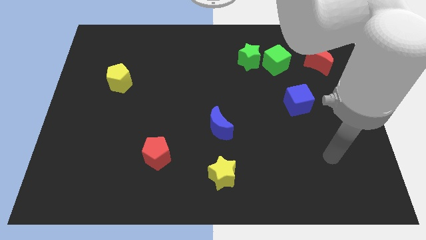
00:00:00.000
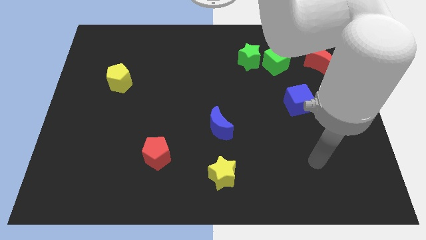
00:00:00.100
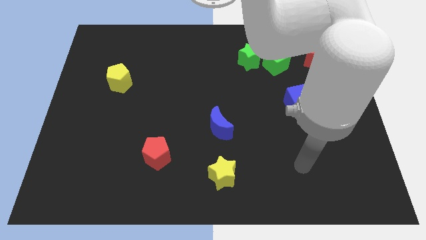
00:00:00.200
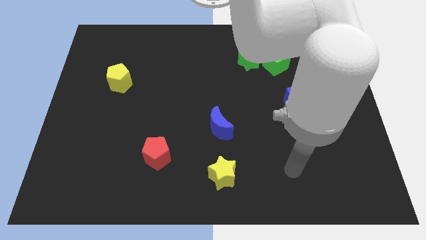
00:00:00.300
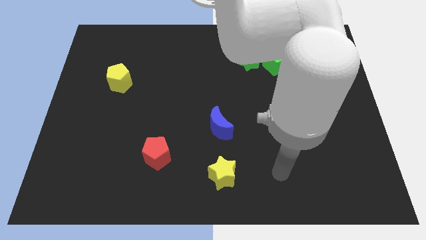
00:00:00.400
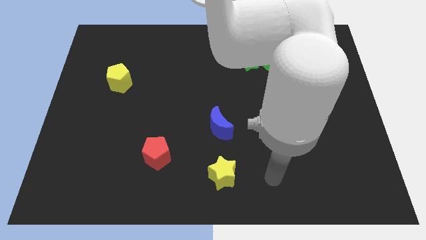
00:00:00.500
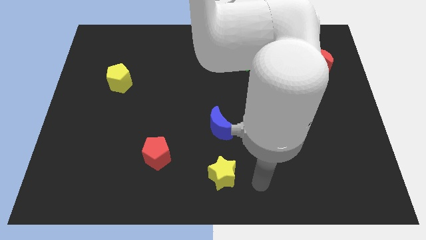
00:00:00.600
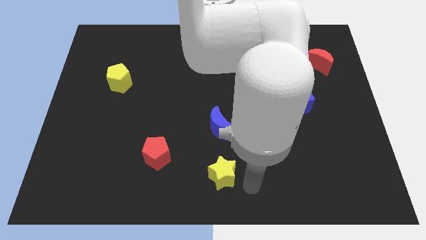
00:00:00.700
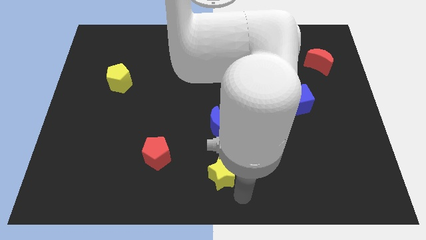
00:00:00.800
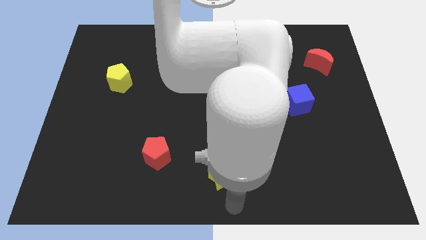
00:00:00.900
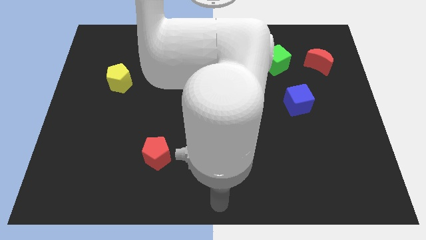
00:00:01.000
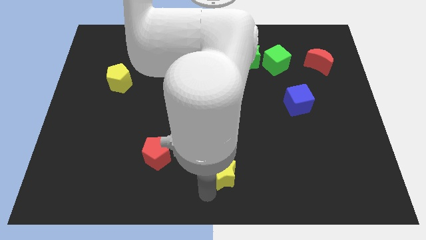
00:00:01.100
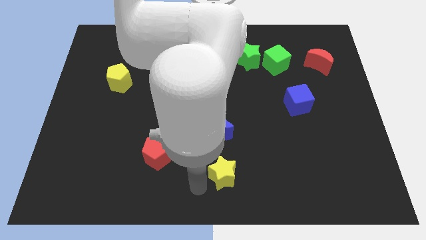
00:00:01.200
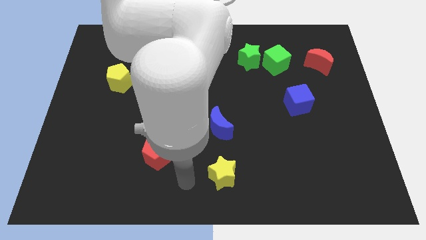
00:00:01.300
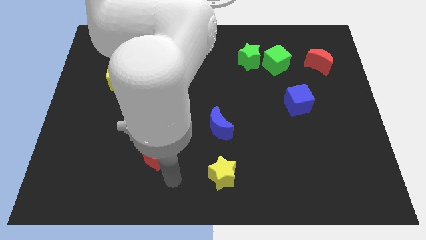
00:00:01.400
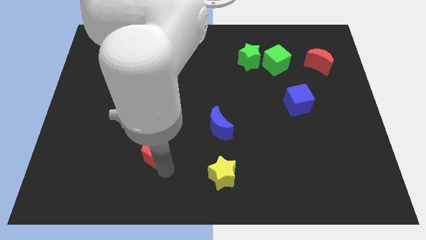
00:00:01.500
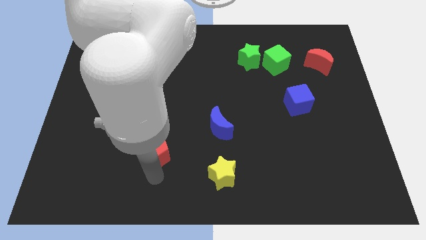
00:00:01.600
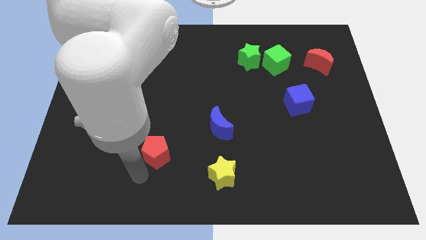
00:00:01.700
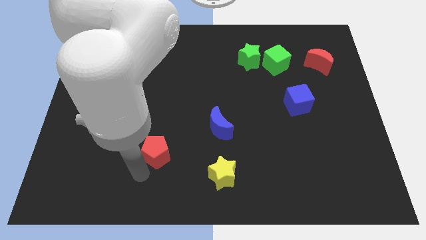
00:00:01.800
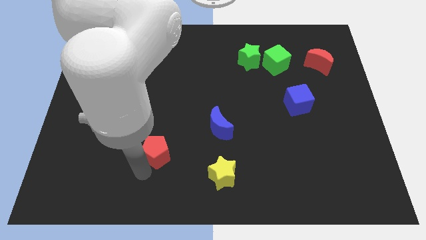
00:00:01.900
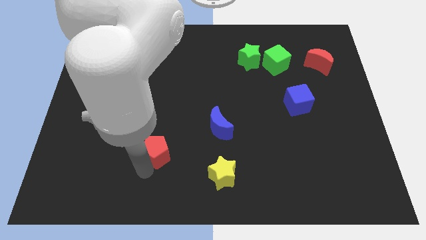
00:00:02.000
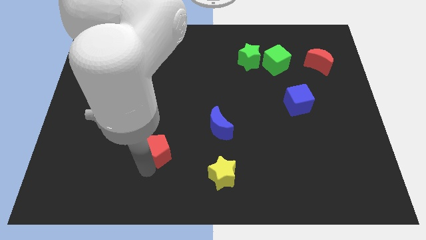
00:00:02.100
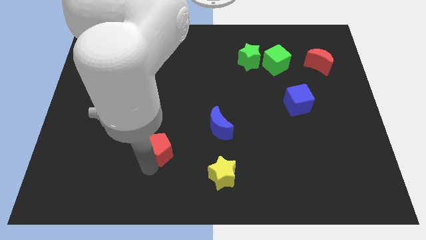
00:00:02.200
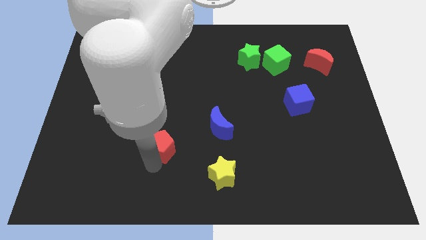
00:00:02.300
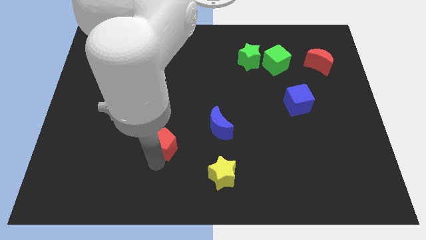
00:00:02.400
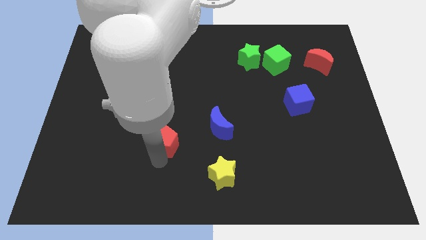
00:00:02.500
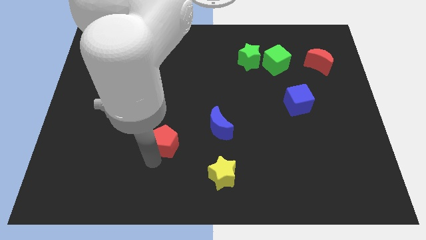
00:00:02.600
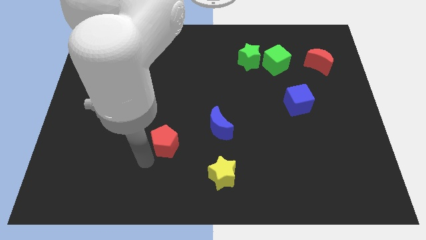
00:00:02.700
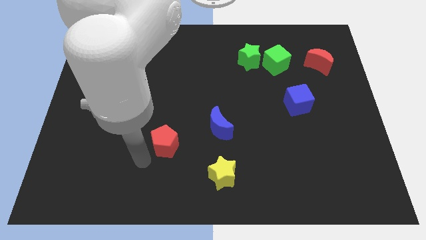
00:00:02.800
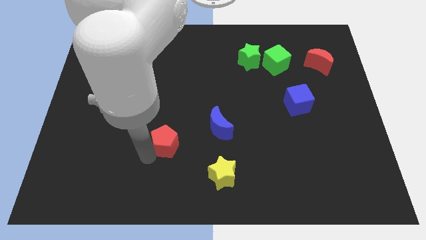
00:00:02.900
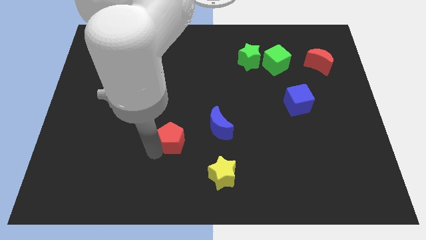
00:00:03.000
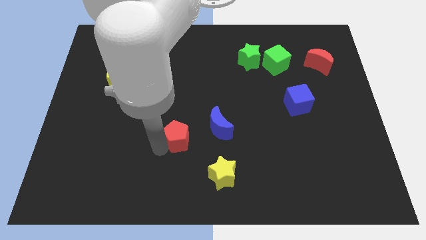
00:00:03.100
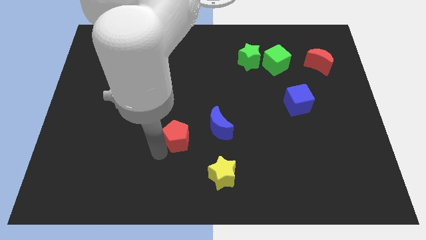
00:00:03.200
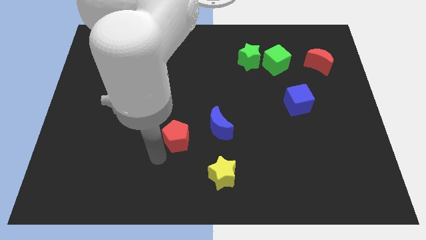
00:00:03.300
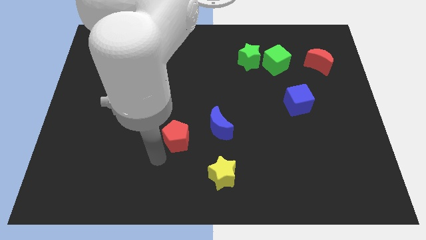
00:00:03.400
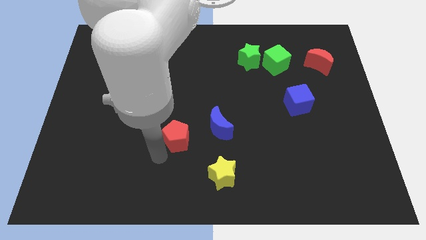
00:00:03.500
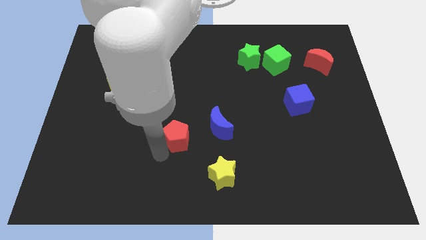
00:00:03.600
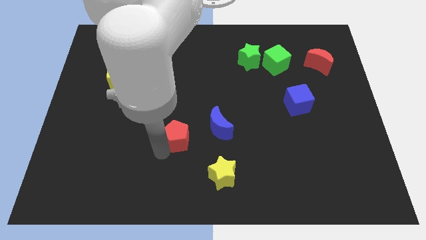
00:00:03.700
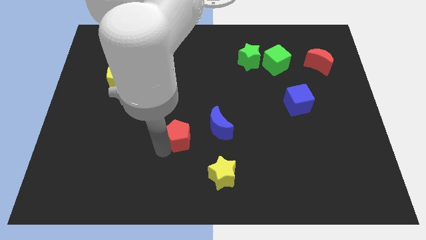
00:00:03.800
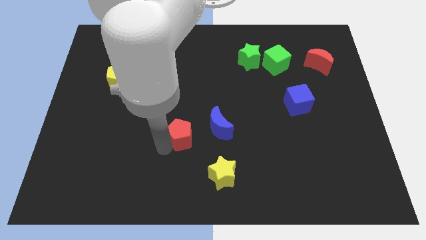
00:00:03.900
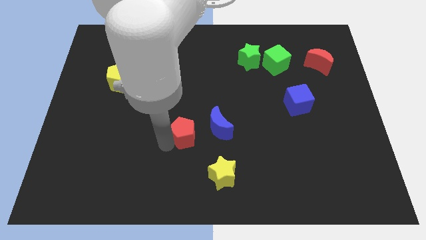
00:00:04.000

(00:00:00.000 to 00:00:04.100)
push the red pentagon somewhat diagonally upwards and right

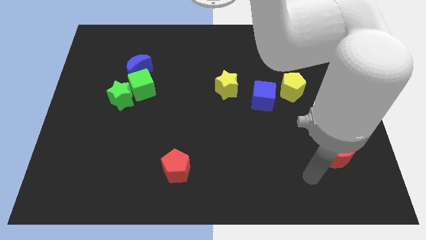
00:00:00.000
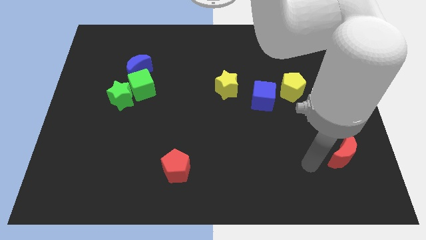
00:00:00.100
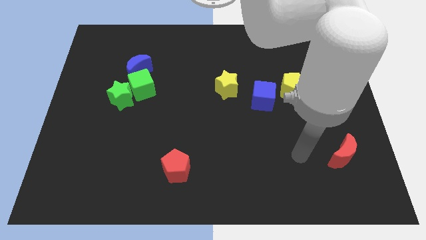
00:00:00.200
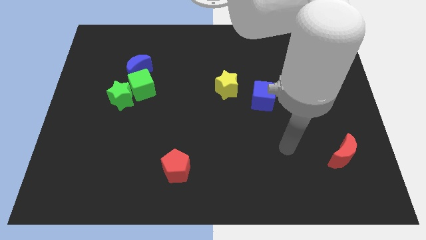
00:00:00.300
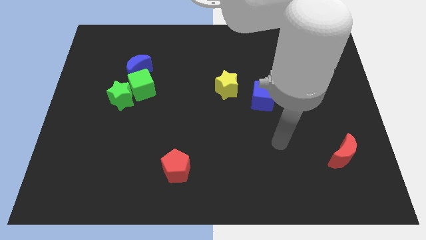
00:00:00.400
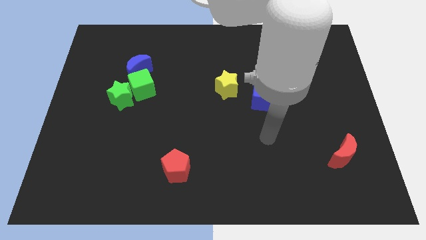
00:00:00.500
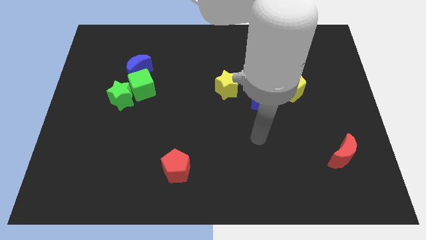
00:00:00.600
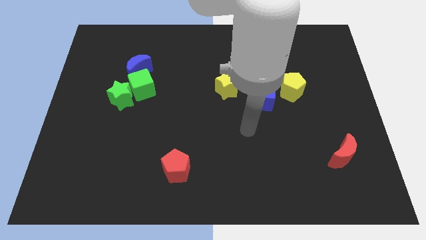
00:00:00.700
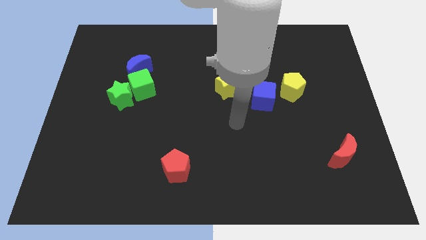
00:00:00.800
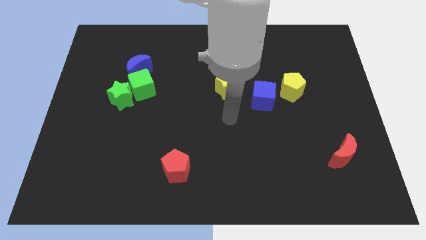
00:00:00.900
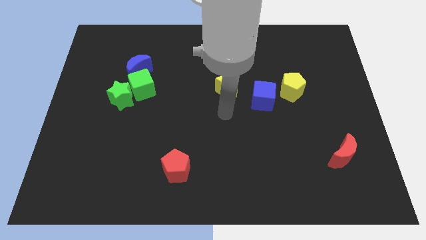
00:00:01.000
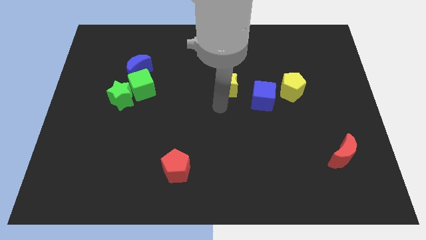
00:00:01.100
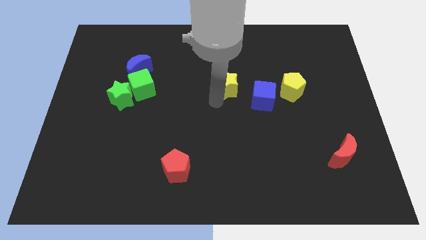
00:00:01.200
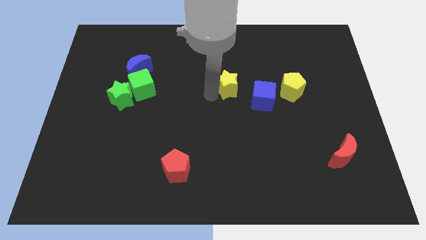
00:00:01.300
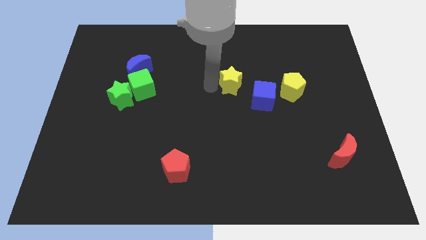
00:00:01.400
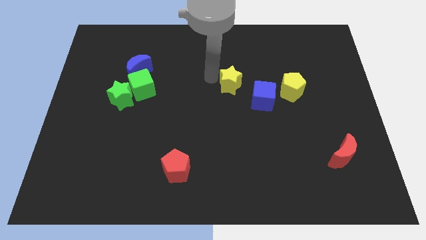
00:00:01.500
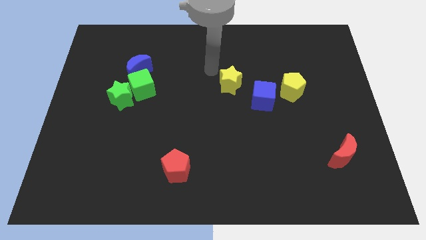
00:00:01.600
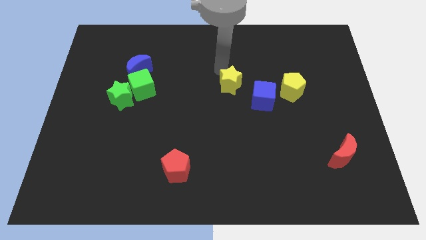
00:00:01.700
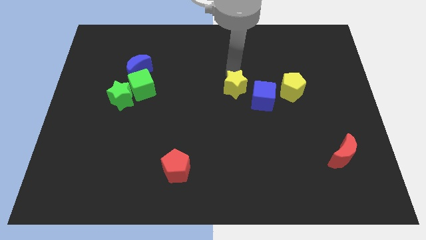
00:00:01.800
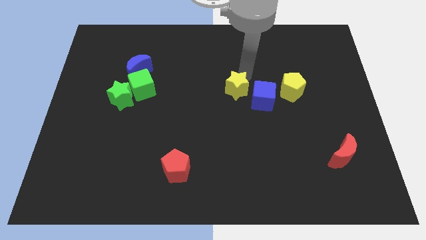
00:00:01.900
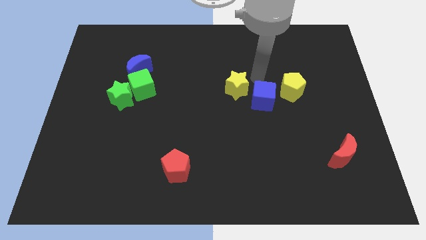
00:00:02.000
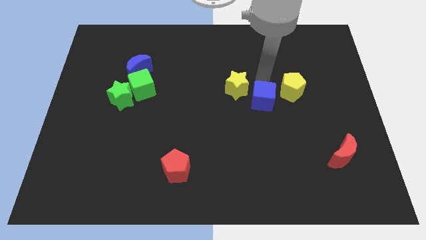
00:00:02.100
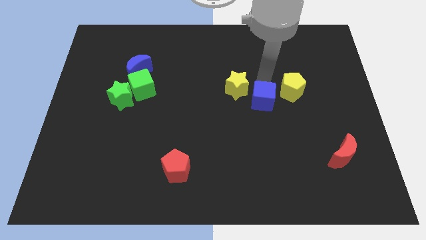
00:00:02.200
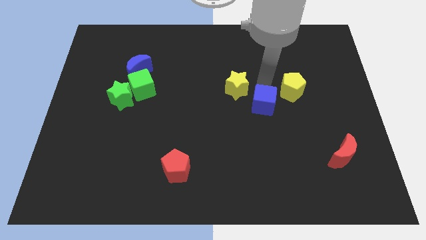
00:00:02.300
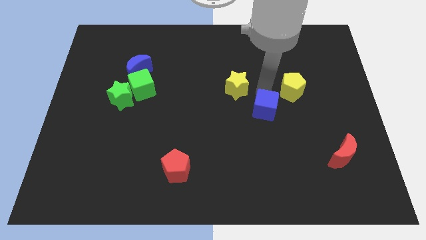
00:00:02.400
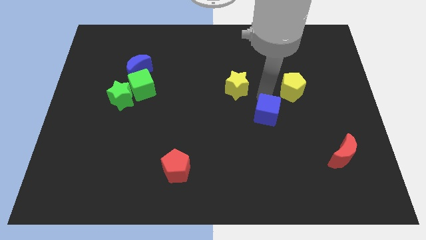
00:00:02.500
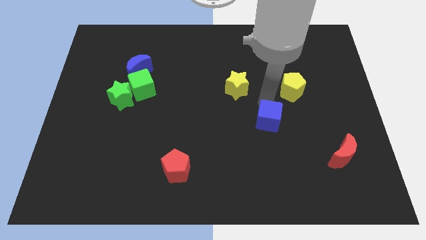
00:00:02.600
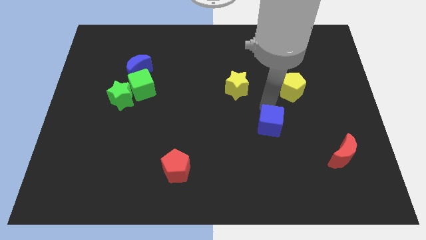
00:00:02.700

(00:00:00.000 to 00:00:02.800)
push the blue cube a little downwards

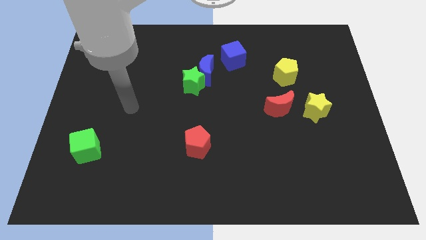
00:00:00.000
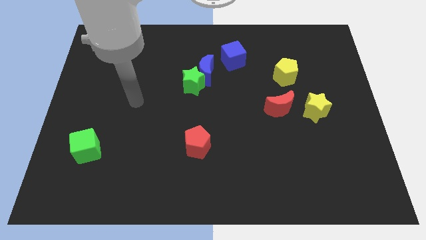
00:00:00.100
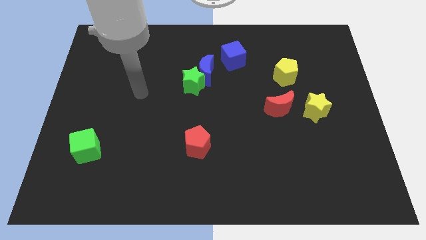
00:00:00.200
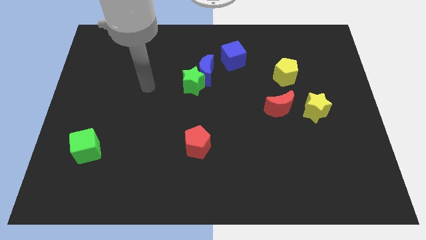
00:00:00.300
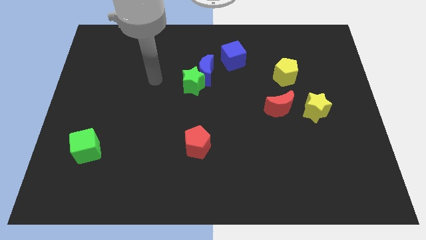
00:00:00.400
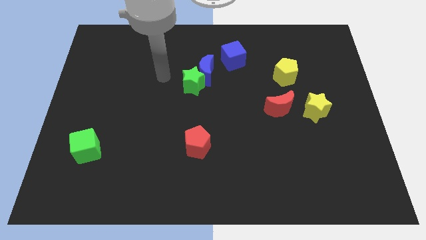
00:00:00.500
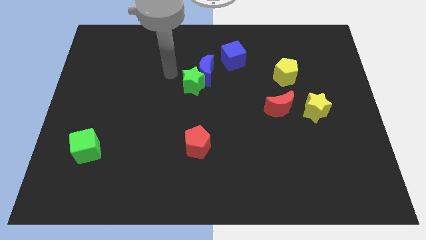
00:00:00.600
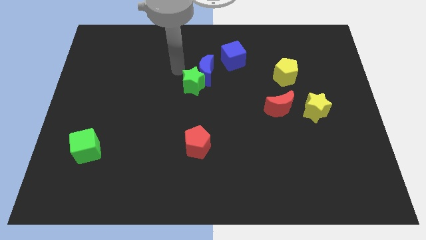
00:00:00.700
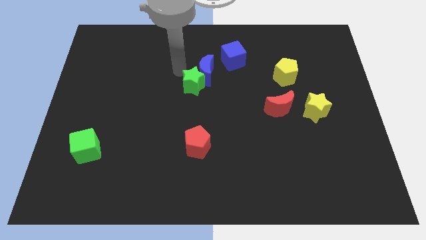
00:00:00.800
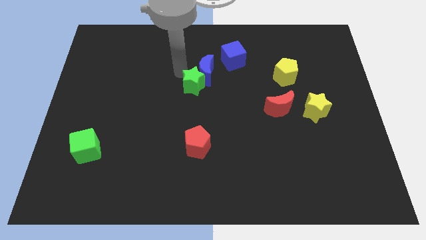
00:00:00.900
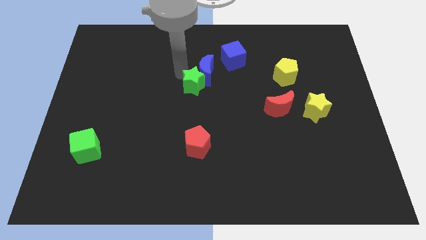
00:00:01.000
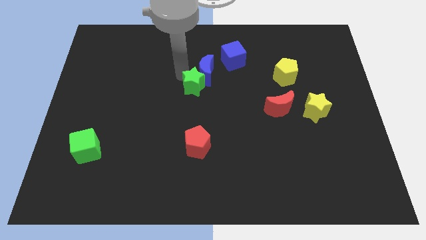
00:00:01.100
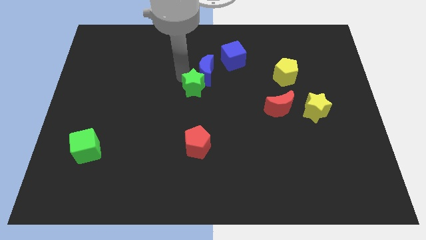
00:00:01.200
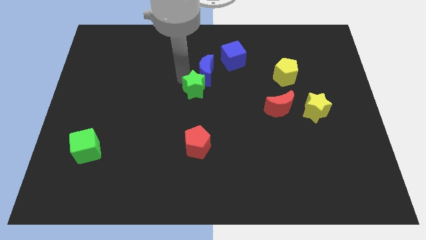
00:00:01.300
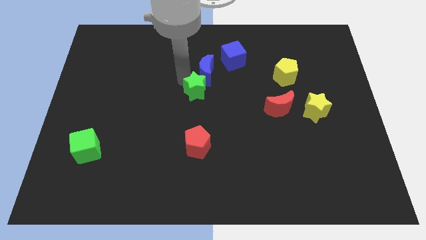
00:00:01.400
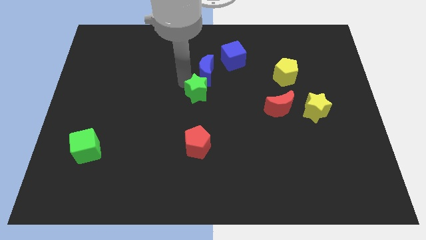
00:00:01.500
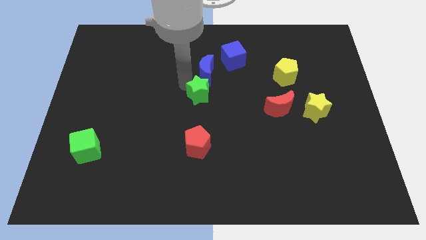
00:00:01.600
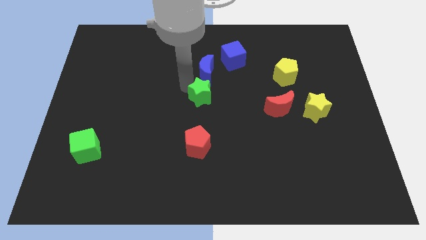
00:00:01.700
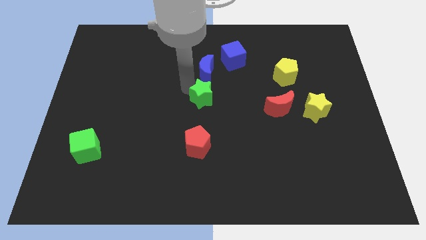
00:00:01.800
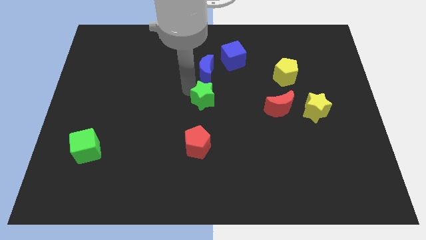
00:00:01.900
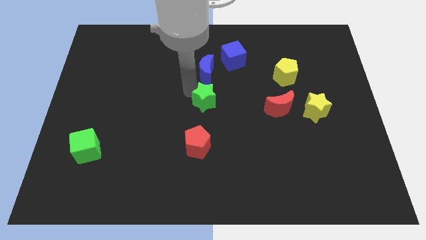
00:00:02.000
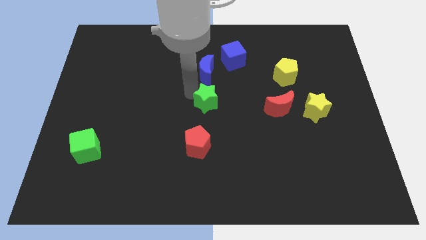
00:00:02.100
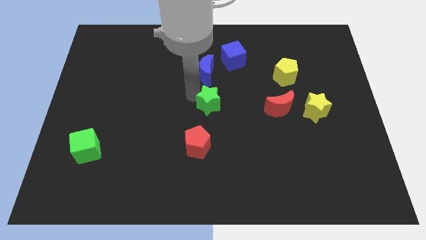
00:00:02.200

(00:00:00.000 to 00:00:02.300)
slightly move the green star down and to the right
